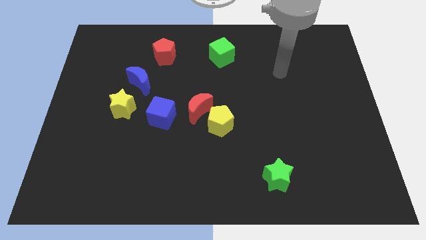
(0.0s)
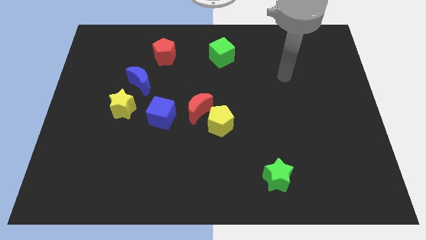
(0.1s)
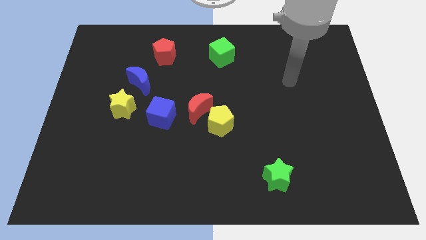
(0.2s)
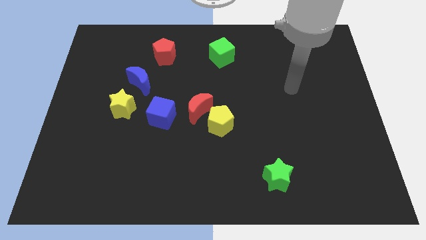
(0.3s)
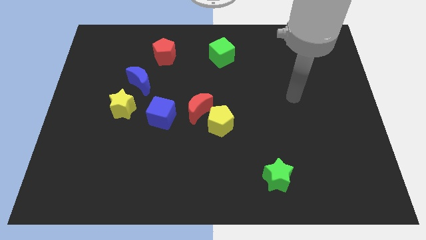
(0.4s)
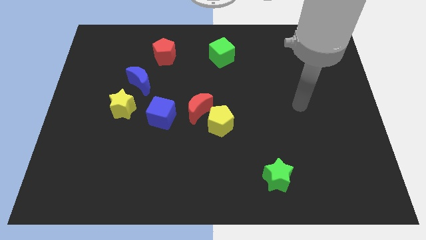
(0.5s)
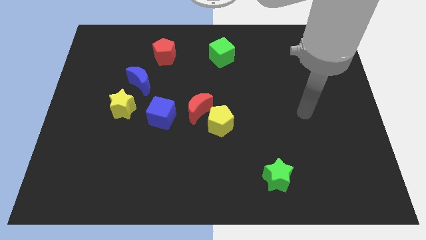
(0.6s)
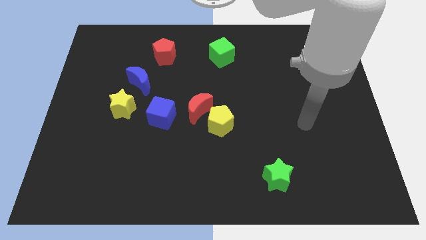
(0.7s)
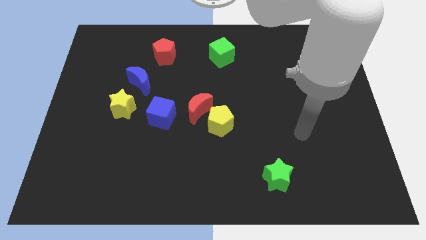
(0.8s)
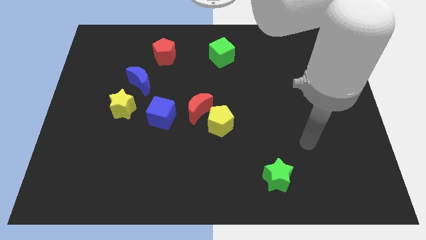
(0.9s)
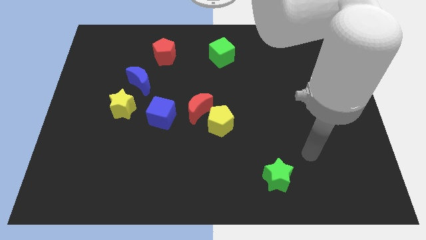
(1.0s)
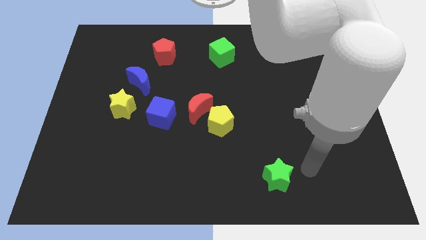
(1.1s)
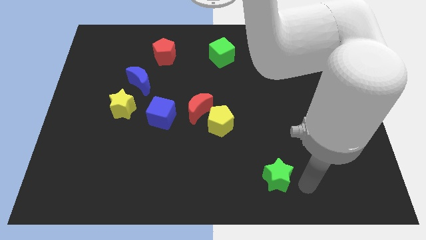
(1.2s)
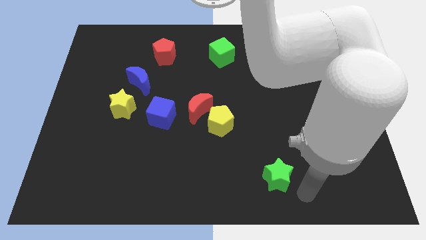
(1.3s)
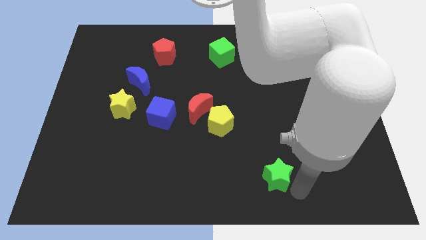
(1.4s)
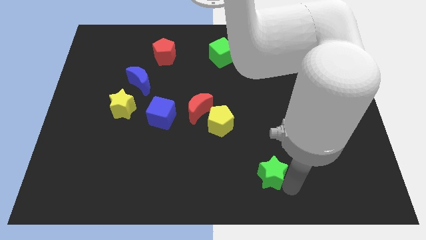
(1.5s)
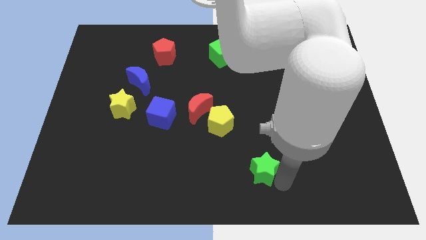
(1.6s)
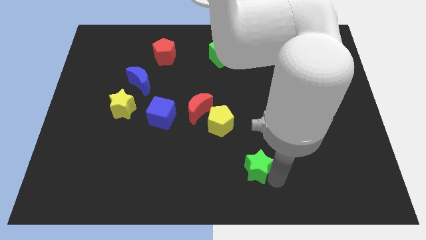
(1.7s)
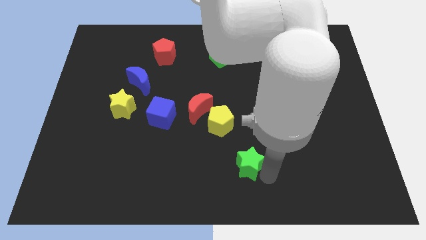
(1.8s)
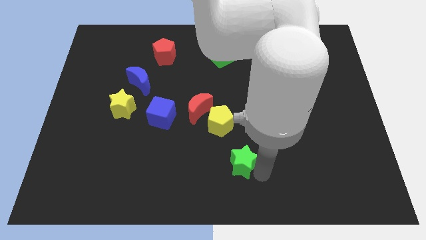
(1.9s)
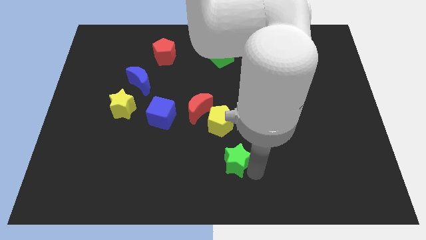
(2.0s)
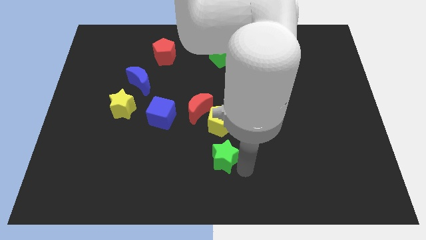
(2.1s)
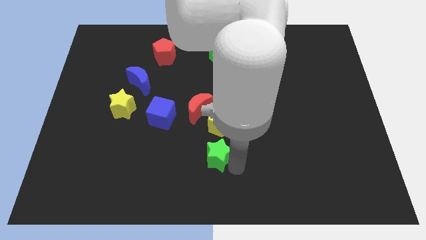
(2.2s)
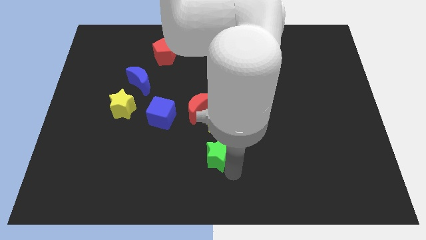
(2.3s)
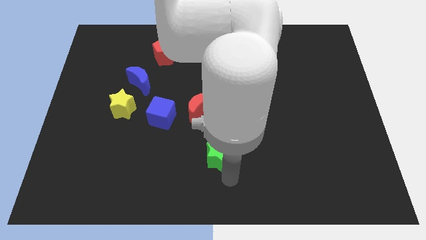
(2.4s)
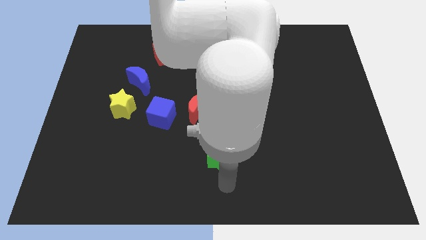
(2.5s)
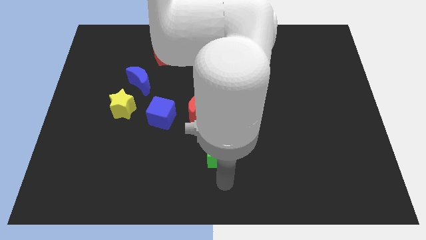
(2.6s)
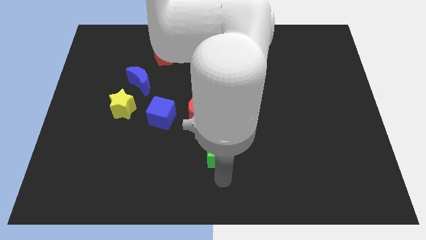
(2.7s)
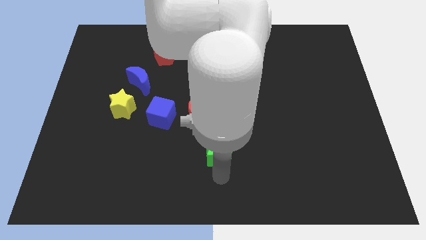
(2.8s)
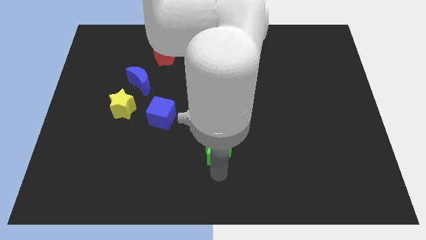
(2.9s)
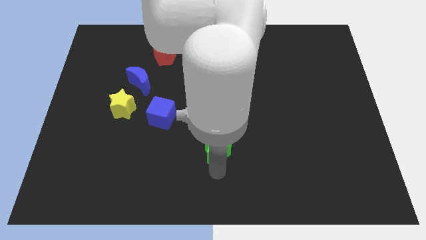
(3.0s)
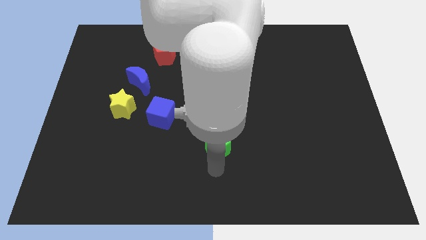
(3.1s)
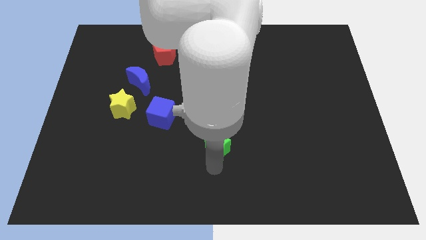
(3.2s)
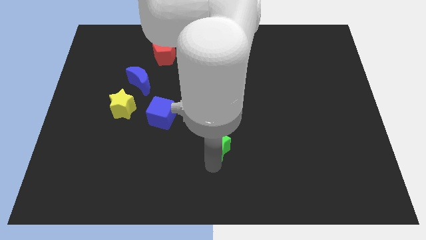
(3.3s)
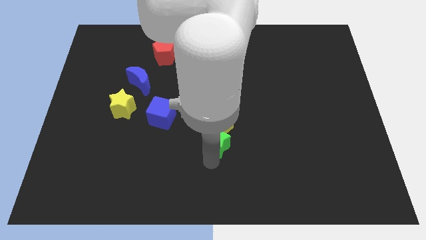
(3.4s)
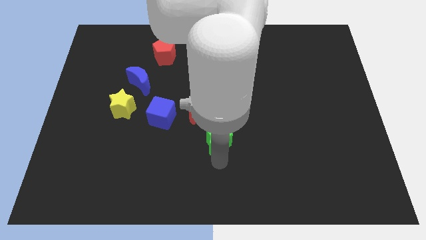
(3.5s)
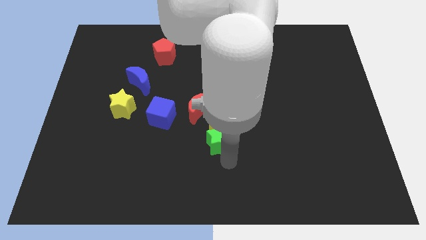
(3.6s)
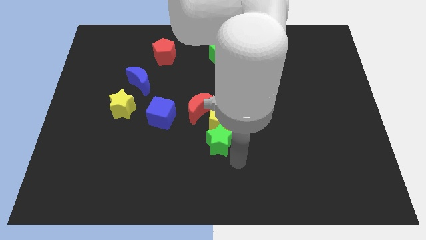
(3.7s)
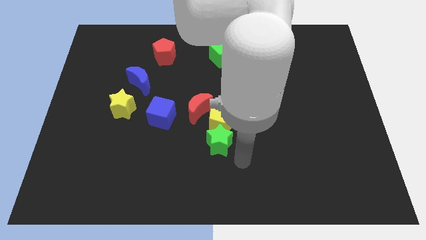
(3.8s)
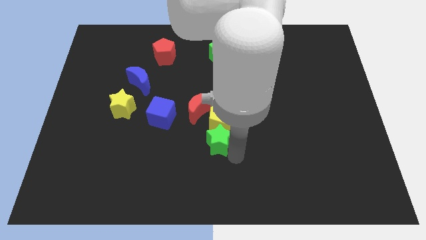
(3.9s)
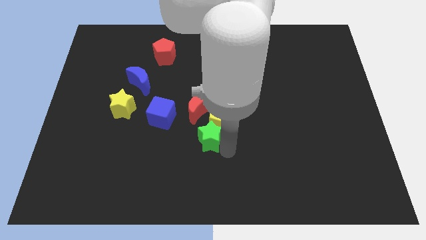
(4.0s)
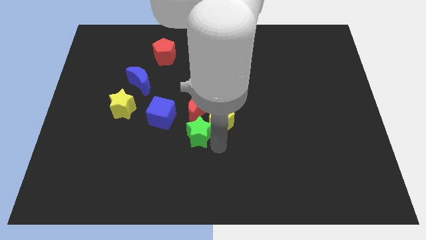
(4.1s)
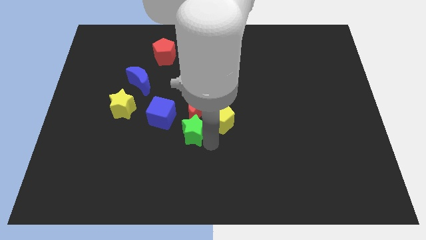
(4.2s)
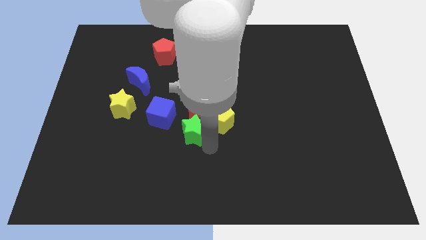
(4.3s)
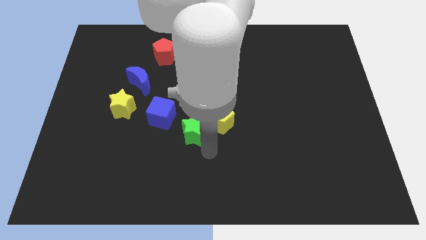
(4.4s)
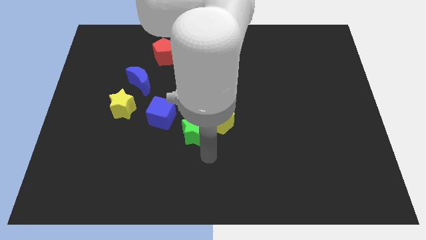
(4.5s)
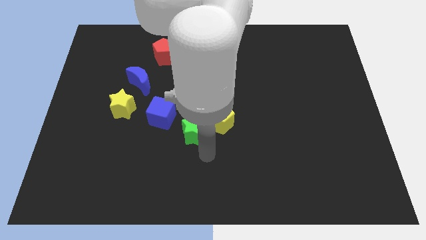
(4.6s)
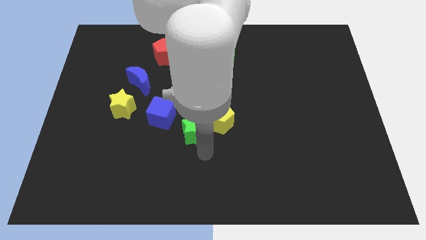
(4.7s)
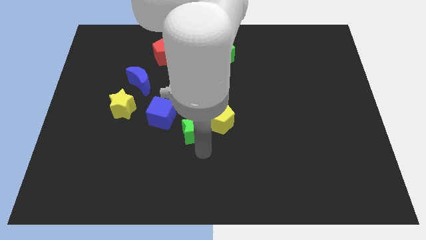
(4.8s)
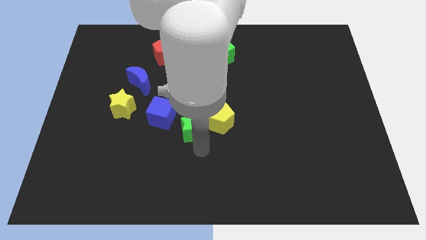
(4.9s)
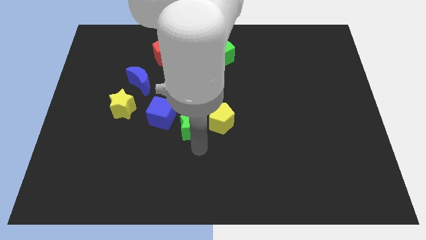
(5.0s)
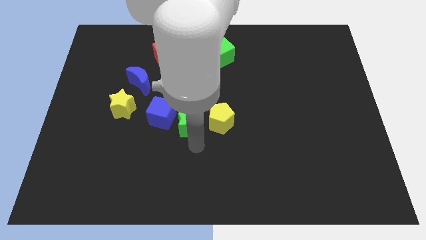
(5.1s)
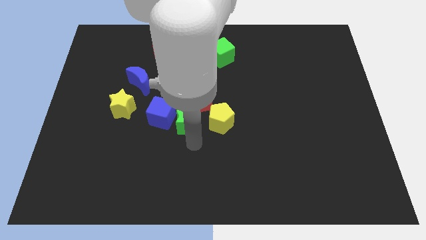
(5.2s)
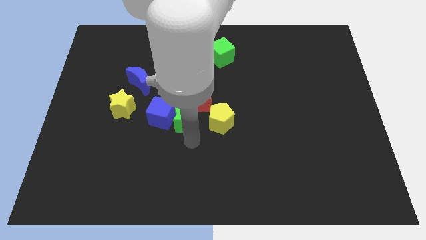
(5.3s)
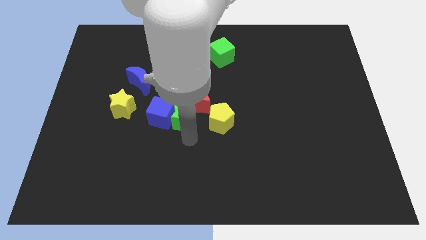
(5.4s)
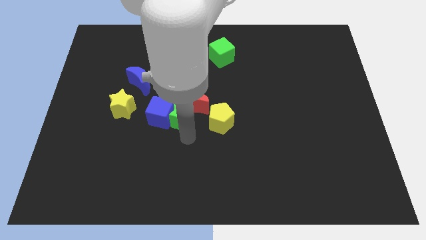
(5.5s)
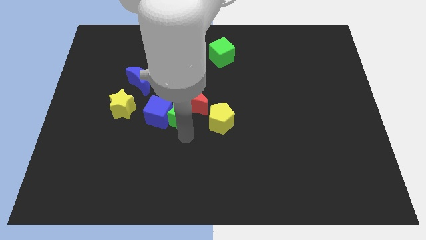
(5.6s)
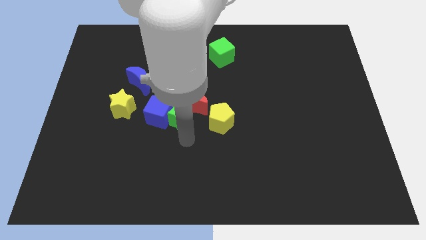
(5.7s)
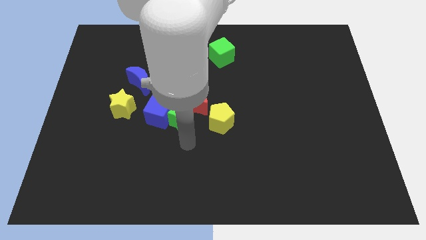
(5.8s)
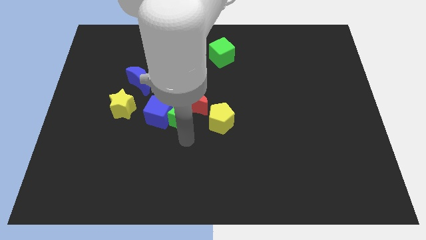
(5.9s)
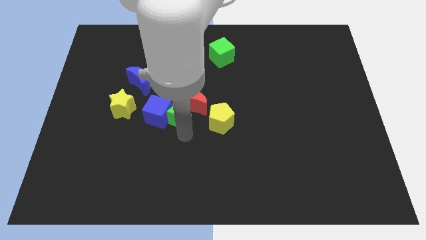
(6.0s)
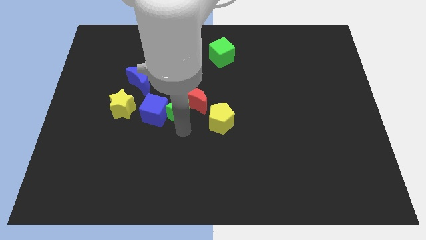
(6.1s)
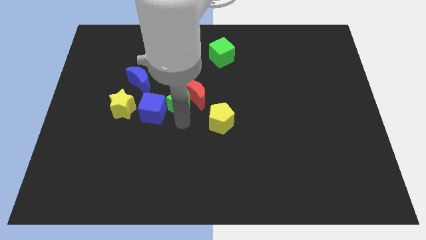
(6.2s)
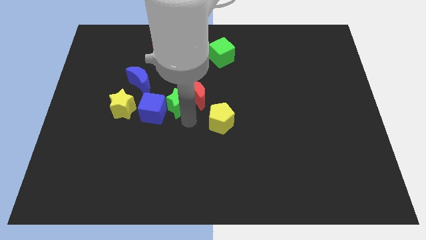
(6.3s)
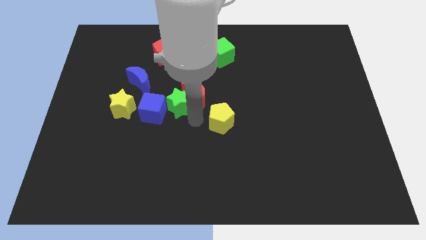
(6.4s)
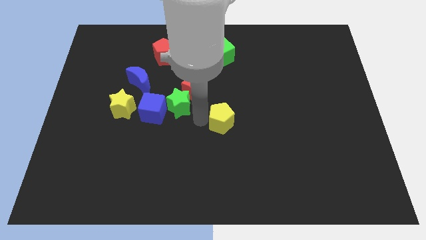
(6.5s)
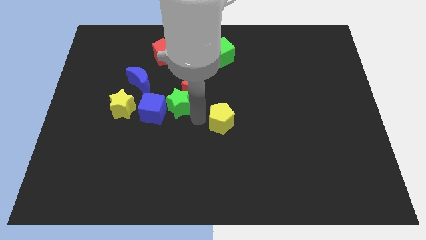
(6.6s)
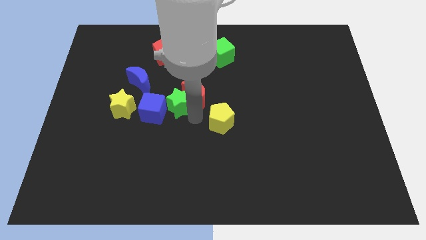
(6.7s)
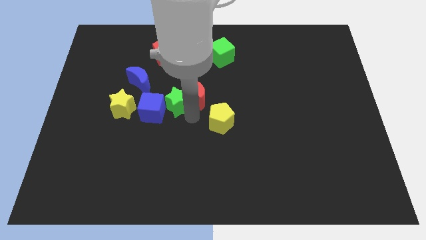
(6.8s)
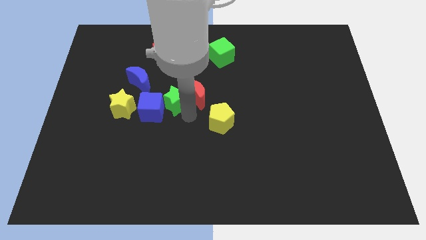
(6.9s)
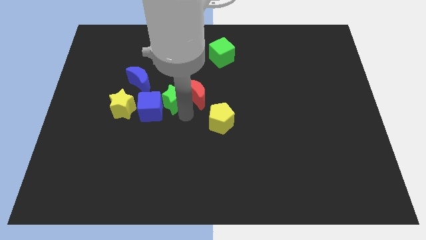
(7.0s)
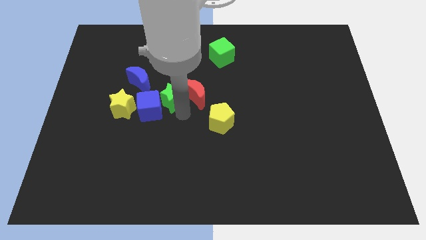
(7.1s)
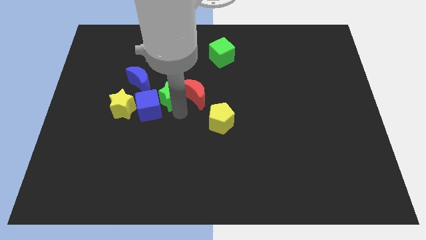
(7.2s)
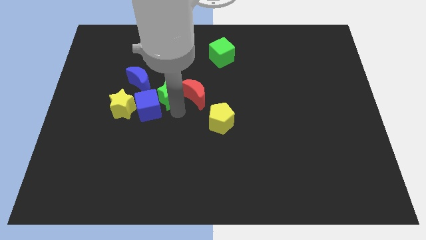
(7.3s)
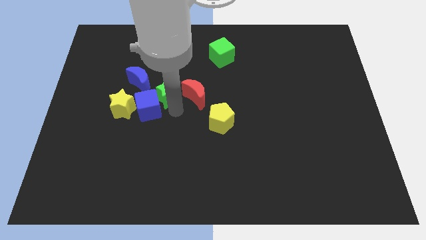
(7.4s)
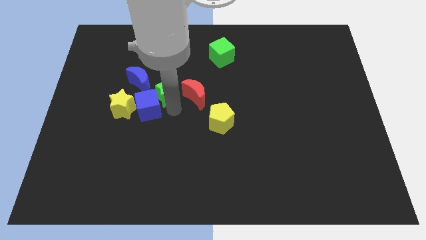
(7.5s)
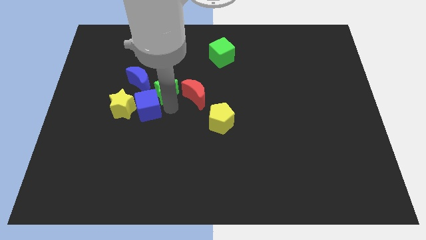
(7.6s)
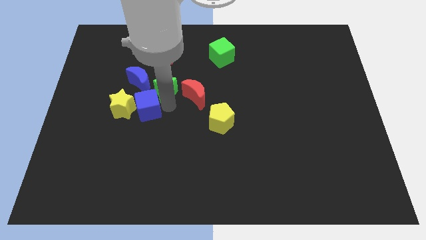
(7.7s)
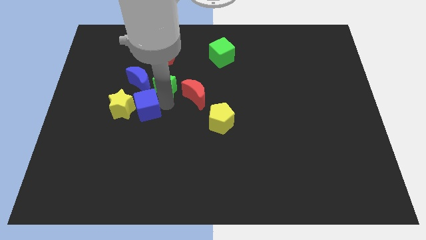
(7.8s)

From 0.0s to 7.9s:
slide the green star towards the blue moon
